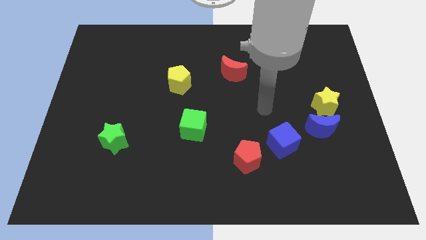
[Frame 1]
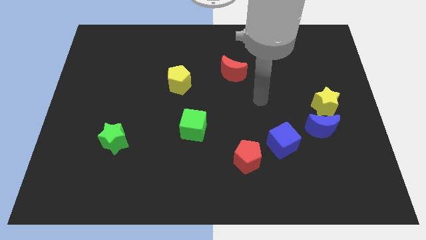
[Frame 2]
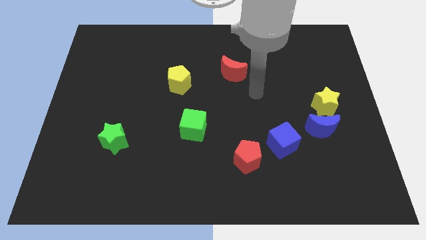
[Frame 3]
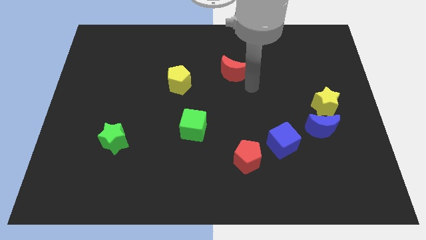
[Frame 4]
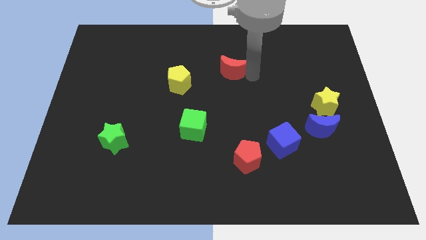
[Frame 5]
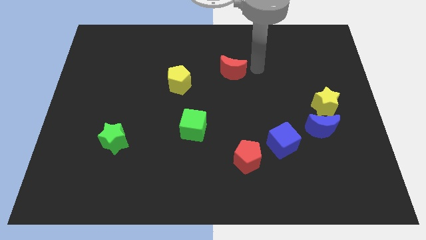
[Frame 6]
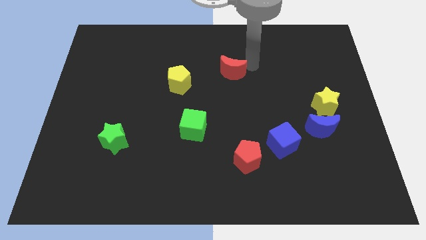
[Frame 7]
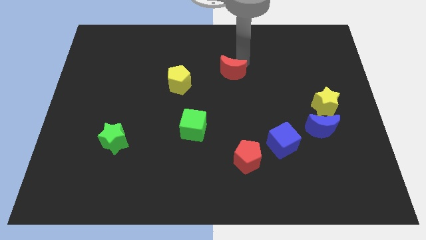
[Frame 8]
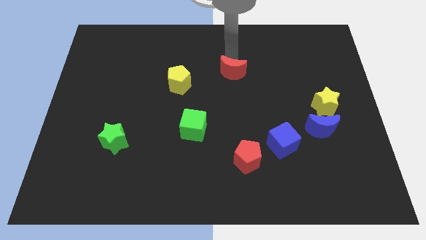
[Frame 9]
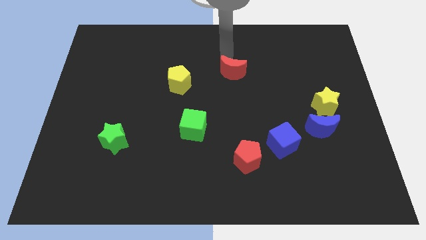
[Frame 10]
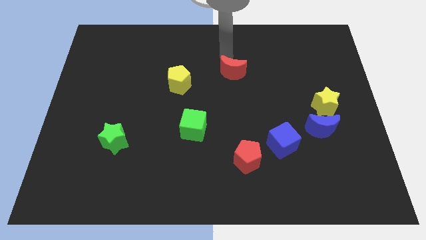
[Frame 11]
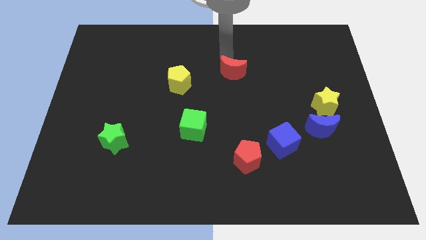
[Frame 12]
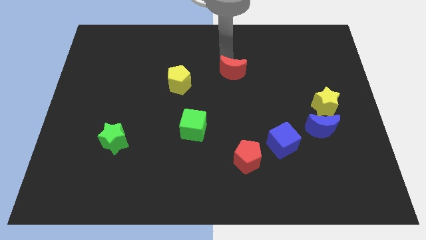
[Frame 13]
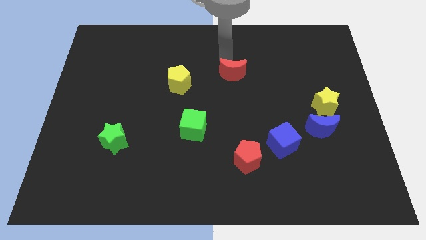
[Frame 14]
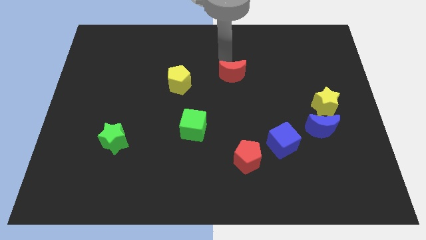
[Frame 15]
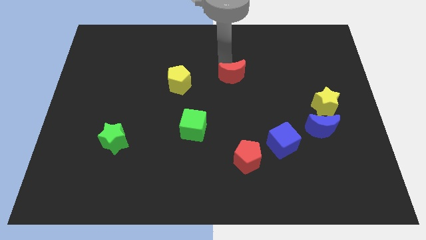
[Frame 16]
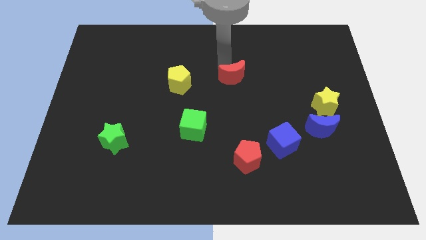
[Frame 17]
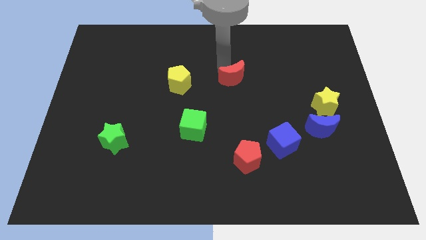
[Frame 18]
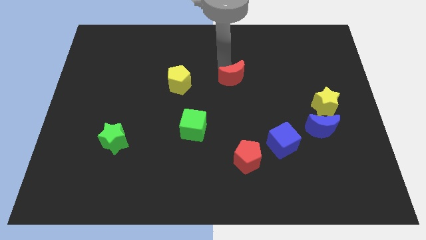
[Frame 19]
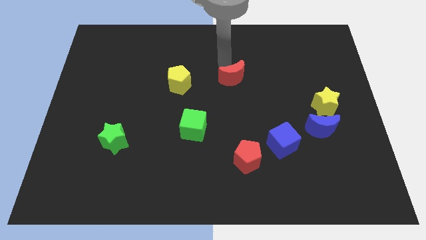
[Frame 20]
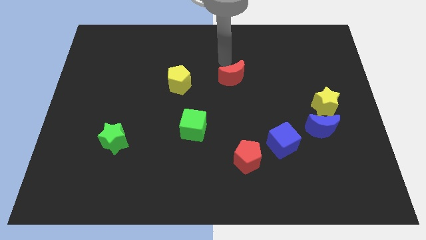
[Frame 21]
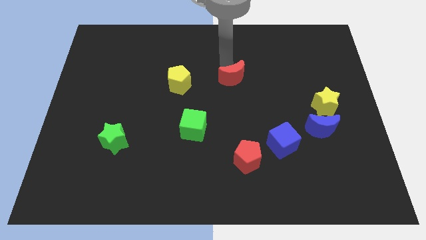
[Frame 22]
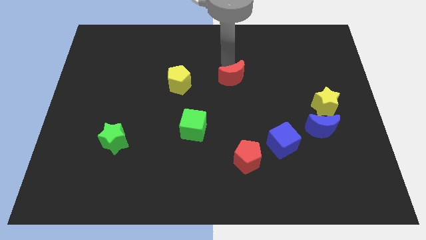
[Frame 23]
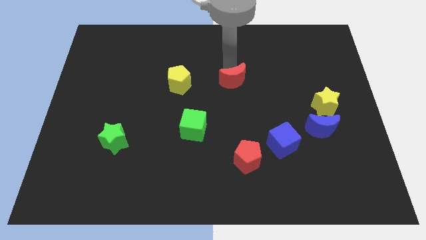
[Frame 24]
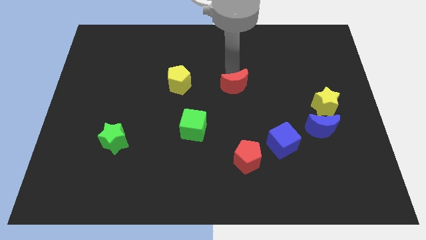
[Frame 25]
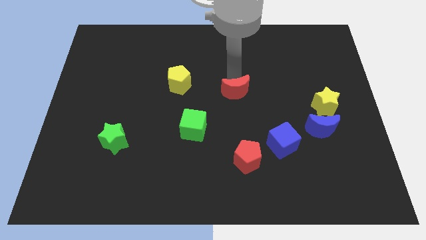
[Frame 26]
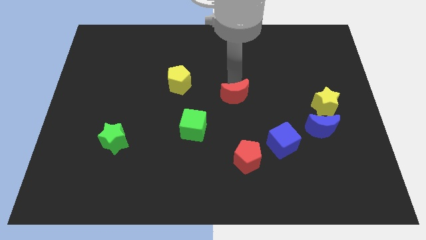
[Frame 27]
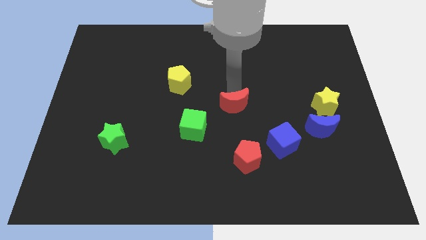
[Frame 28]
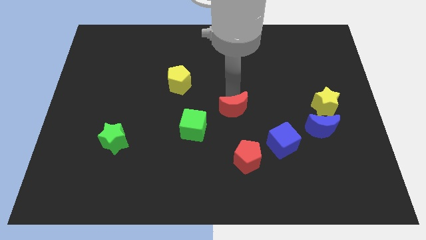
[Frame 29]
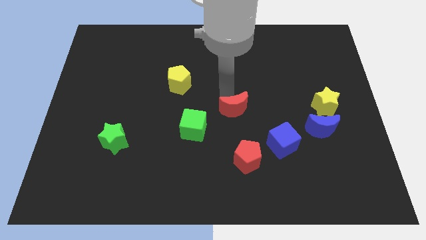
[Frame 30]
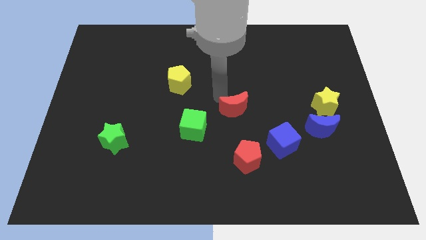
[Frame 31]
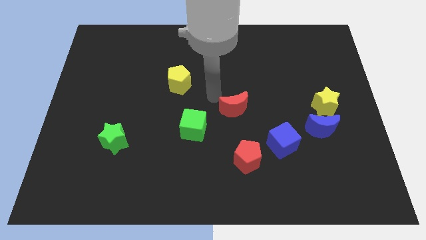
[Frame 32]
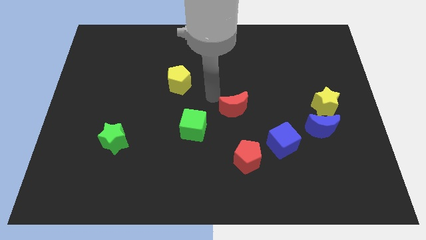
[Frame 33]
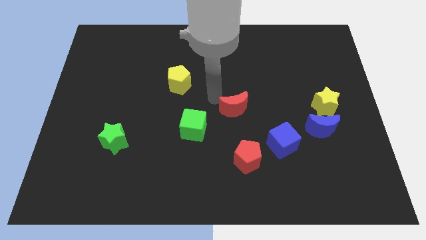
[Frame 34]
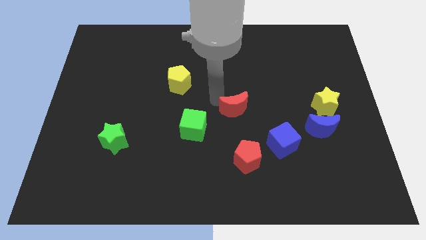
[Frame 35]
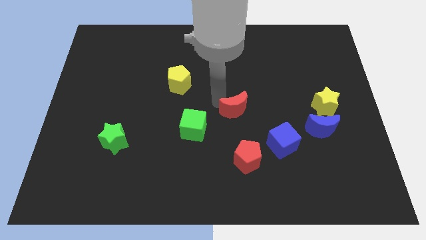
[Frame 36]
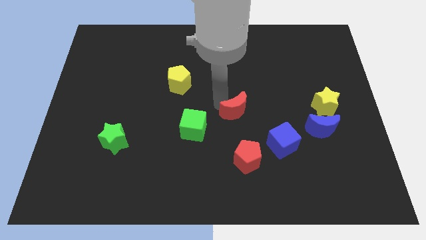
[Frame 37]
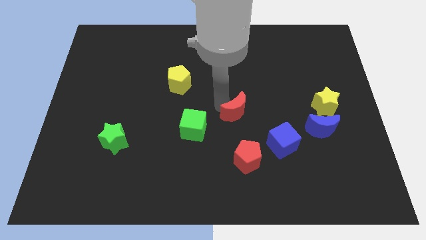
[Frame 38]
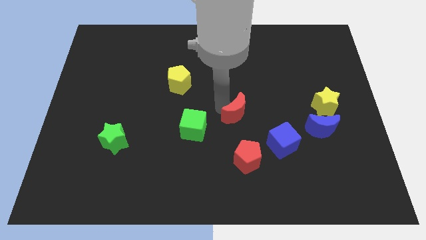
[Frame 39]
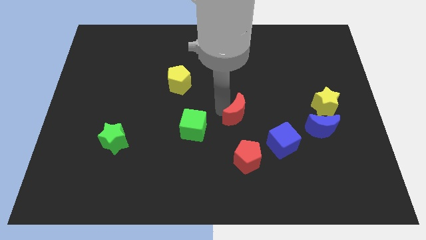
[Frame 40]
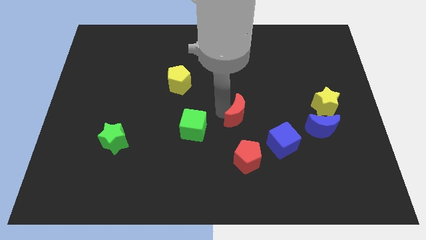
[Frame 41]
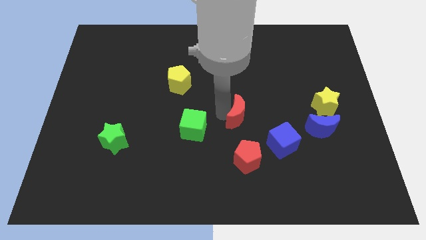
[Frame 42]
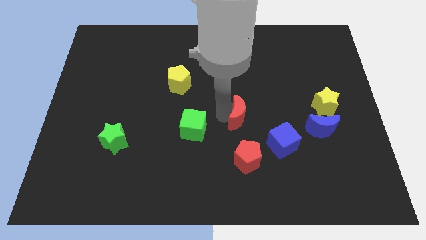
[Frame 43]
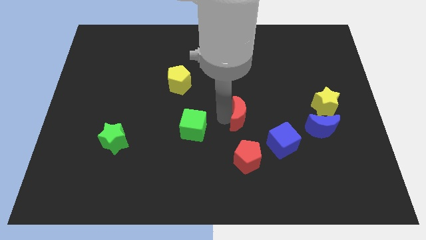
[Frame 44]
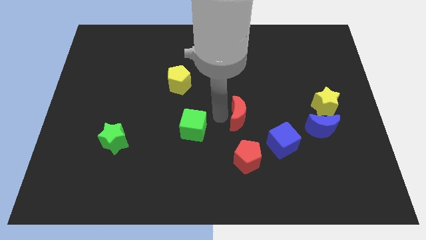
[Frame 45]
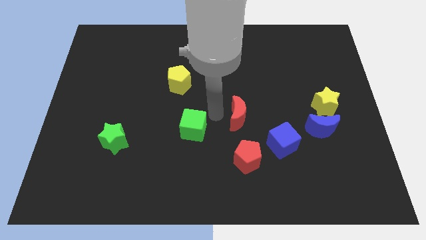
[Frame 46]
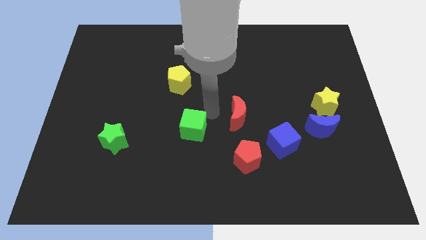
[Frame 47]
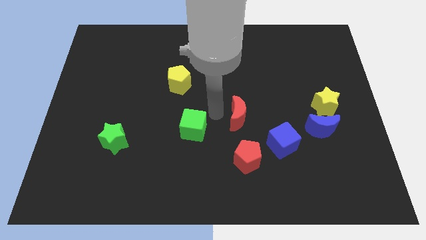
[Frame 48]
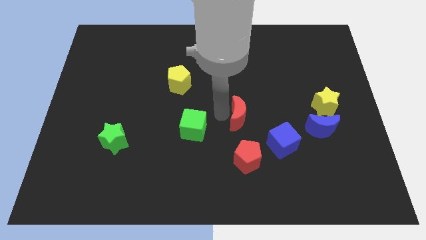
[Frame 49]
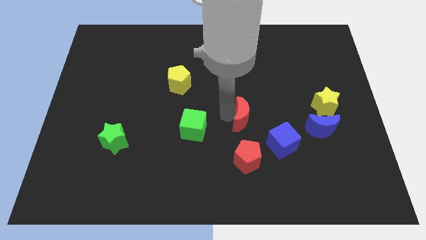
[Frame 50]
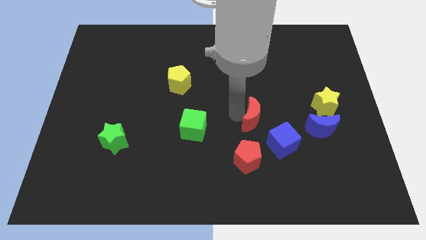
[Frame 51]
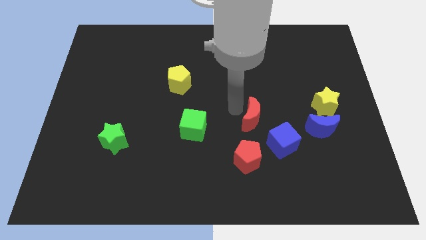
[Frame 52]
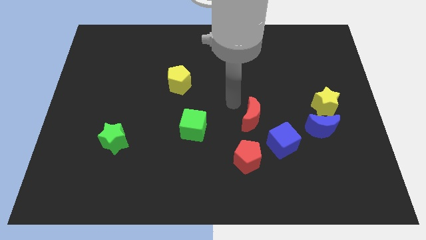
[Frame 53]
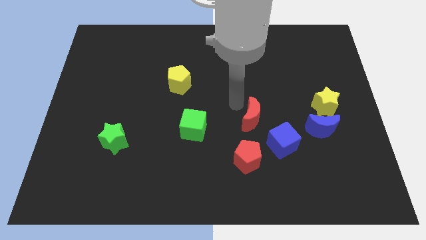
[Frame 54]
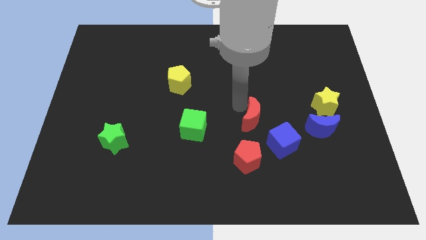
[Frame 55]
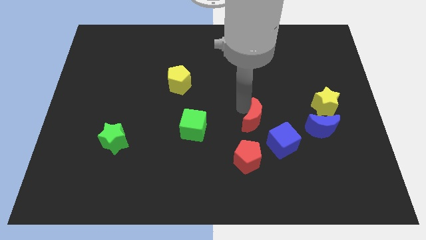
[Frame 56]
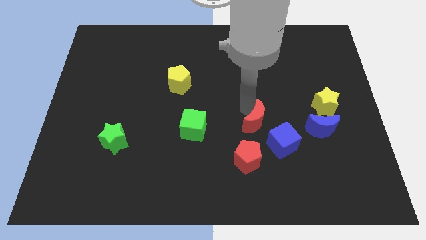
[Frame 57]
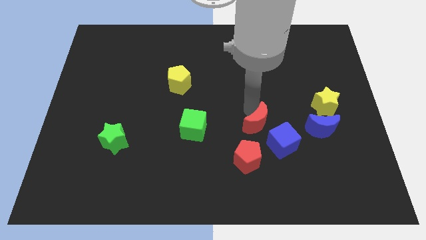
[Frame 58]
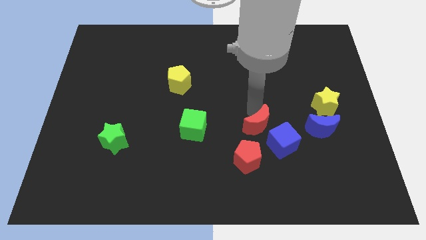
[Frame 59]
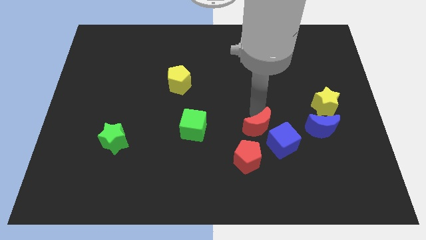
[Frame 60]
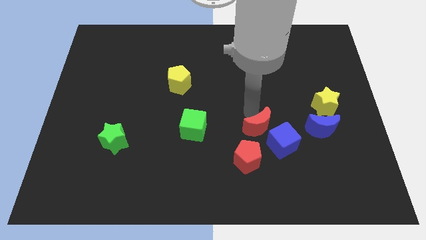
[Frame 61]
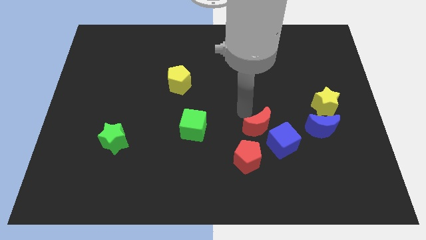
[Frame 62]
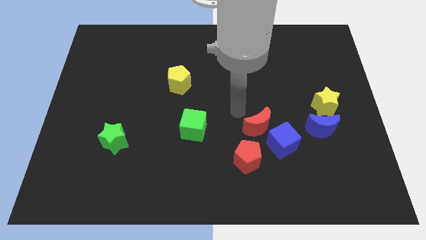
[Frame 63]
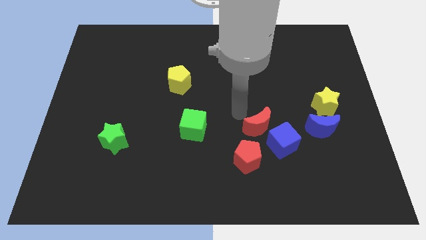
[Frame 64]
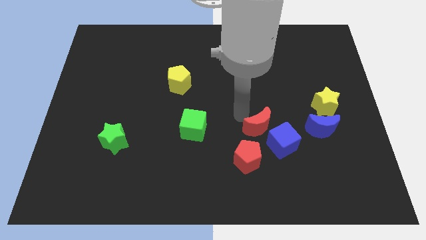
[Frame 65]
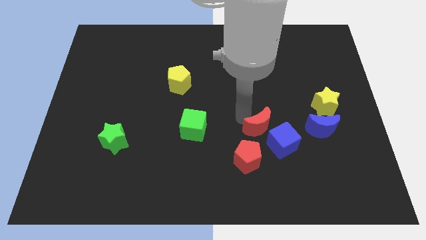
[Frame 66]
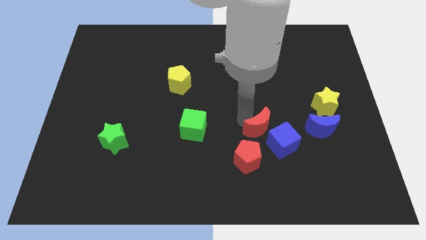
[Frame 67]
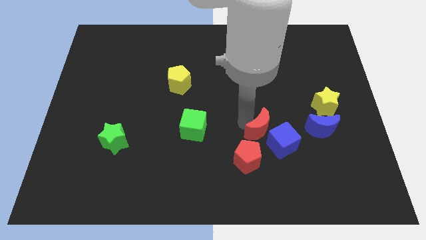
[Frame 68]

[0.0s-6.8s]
push the red moon to the blue cube

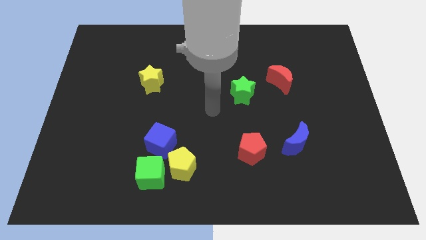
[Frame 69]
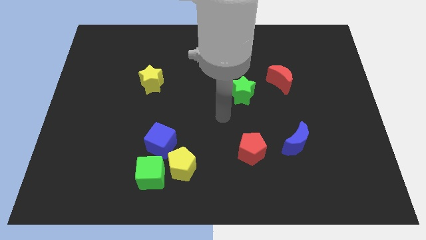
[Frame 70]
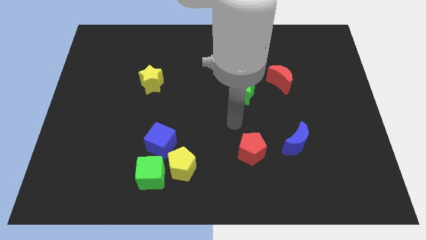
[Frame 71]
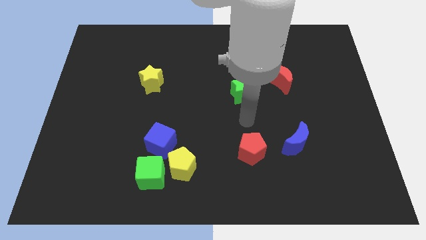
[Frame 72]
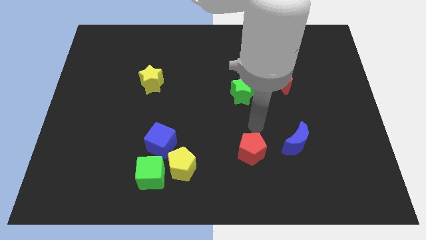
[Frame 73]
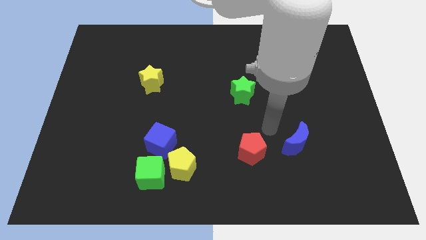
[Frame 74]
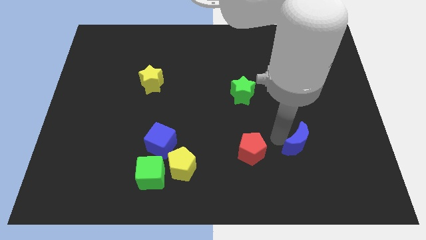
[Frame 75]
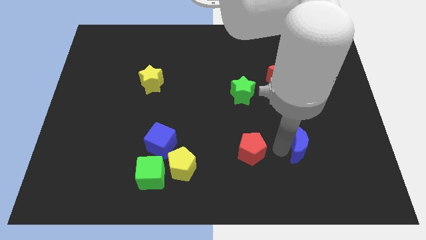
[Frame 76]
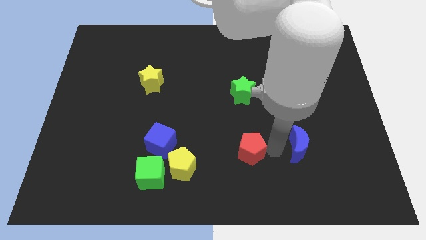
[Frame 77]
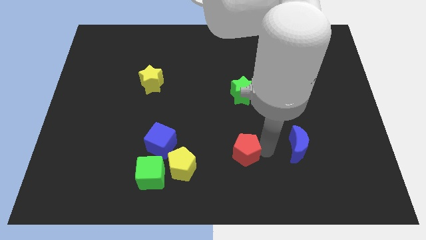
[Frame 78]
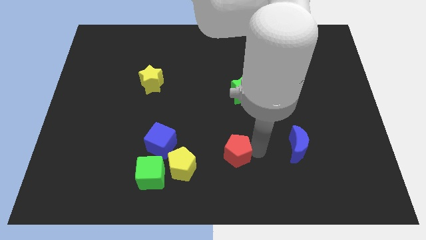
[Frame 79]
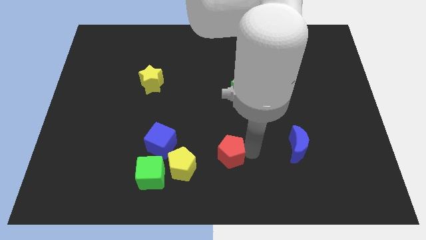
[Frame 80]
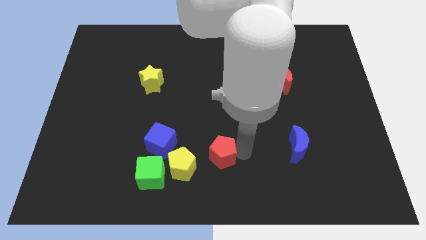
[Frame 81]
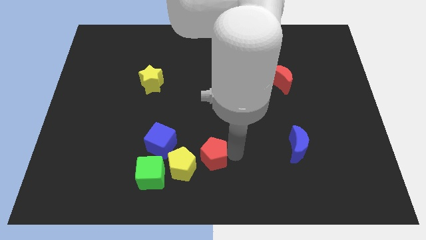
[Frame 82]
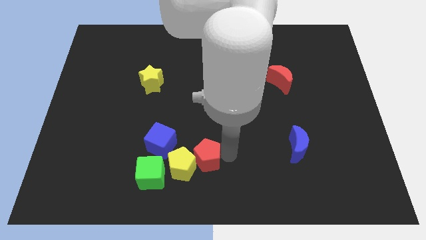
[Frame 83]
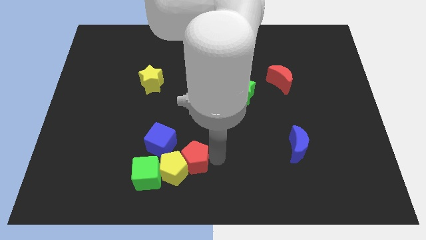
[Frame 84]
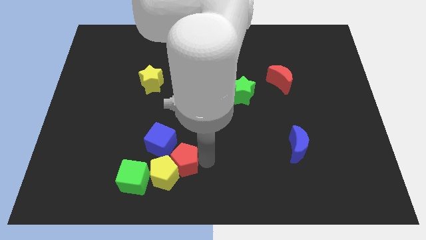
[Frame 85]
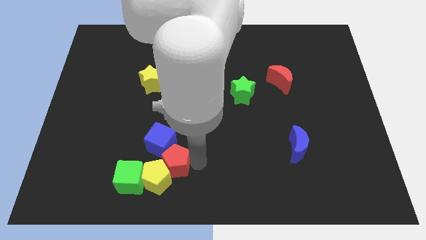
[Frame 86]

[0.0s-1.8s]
move the red pentagon to the blue cube
